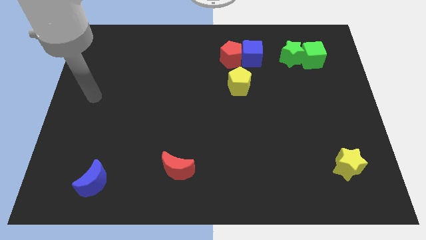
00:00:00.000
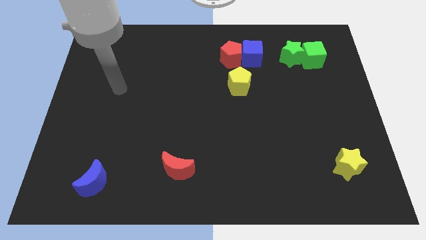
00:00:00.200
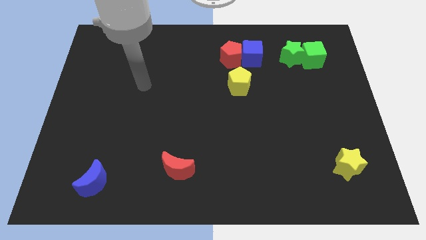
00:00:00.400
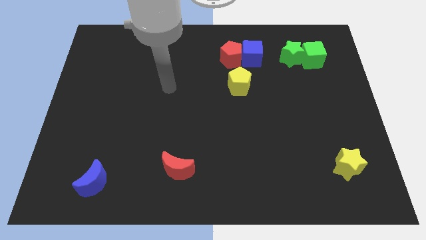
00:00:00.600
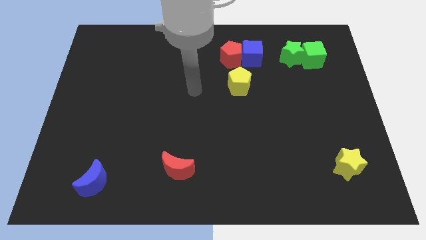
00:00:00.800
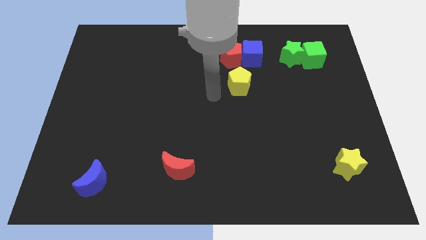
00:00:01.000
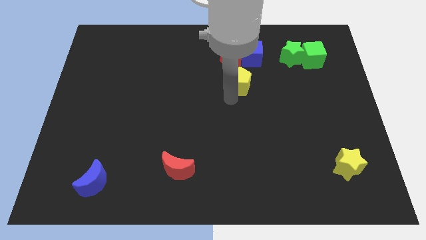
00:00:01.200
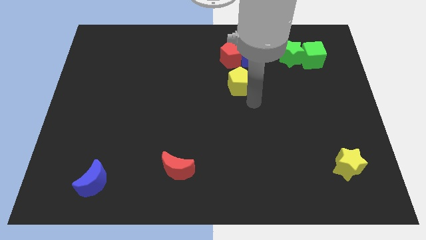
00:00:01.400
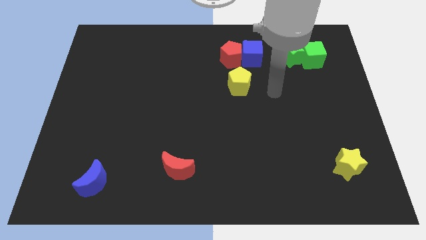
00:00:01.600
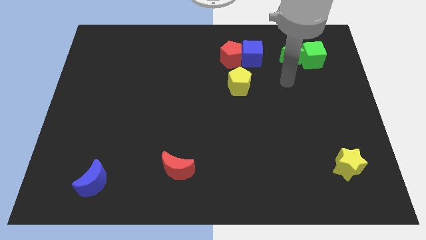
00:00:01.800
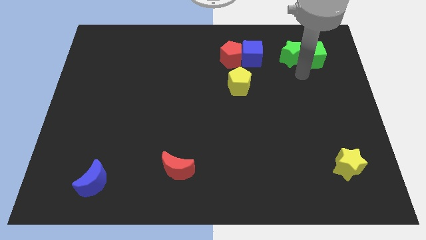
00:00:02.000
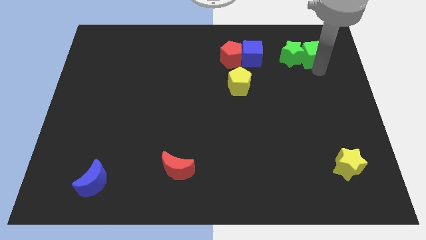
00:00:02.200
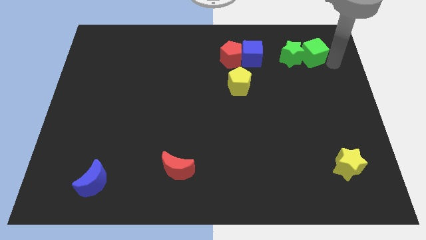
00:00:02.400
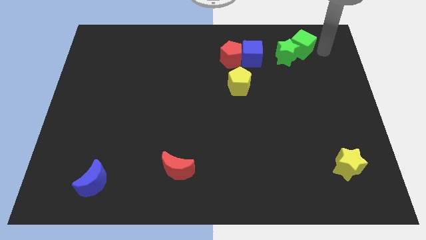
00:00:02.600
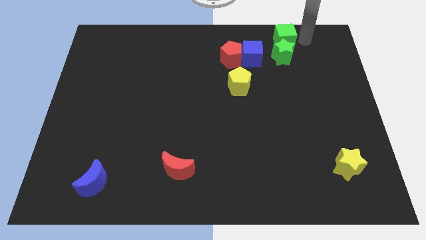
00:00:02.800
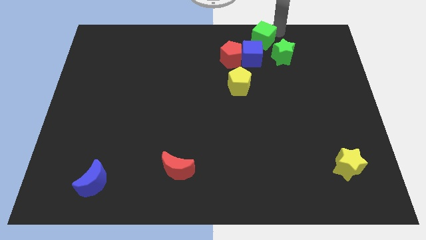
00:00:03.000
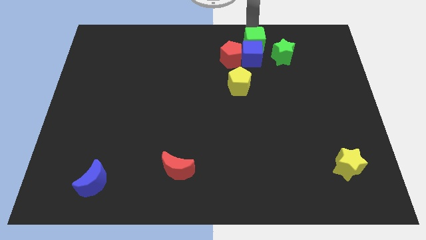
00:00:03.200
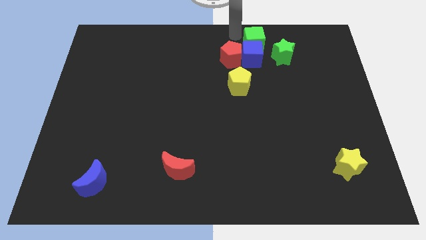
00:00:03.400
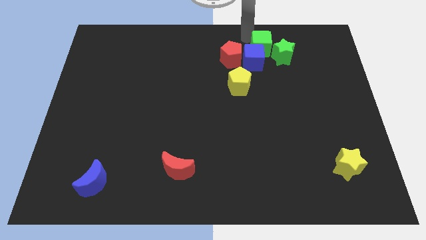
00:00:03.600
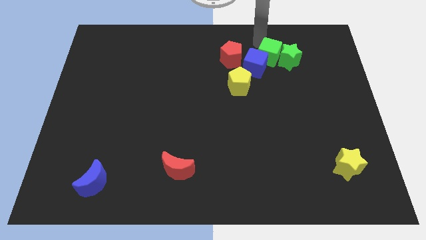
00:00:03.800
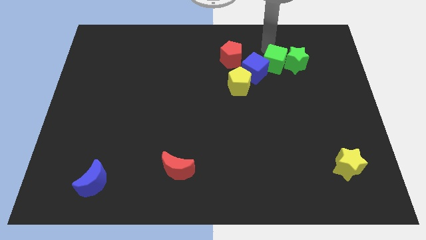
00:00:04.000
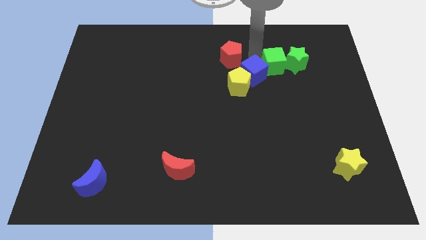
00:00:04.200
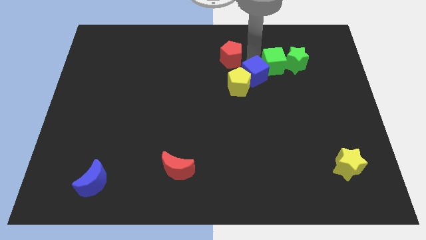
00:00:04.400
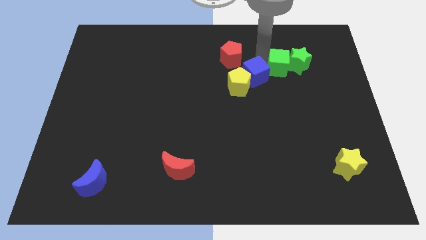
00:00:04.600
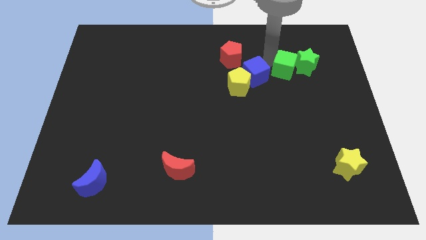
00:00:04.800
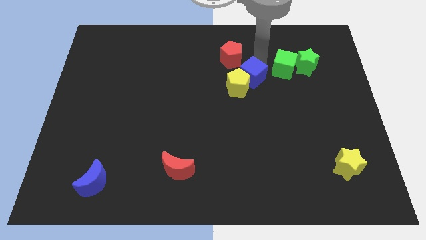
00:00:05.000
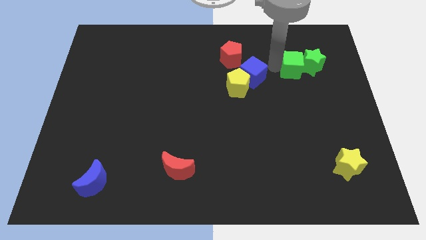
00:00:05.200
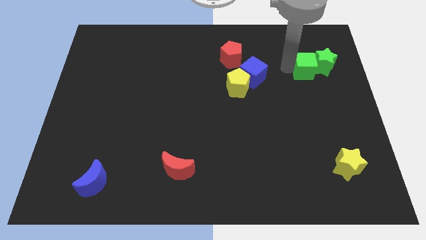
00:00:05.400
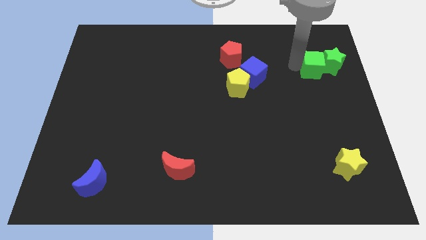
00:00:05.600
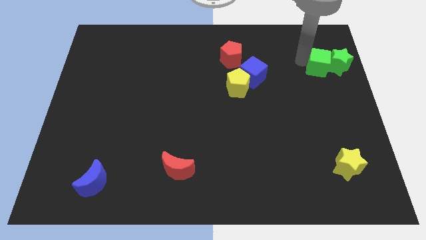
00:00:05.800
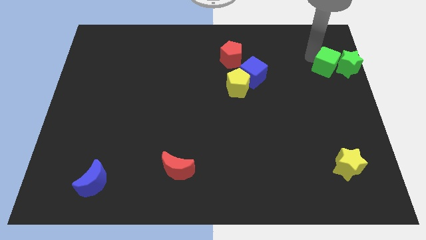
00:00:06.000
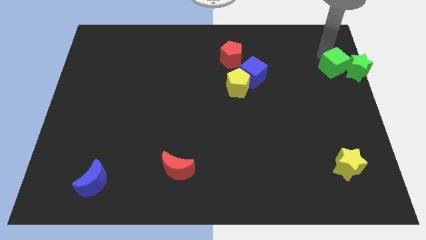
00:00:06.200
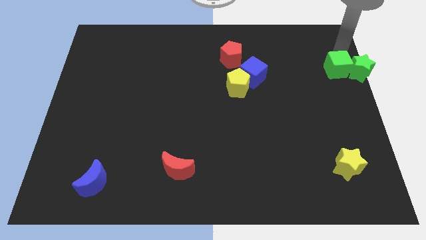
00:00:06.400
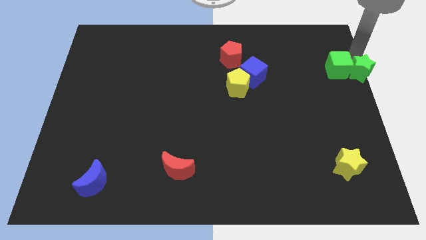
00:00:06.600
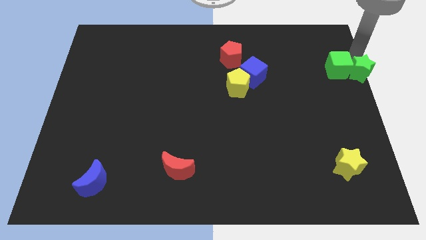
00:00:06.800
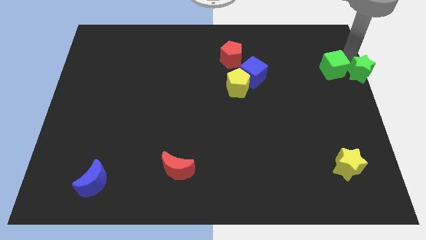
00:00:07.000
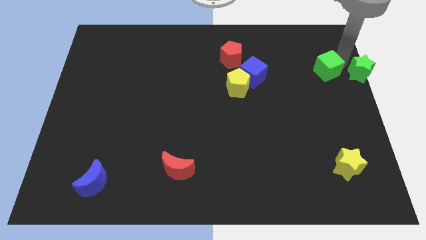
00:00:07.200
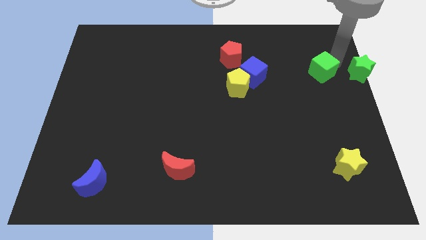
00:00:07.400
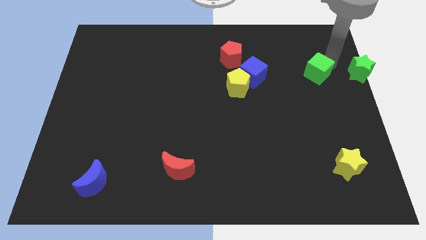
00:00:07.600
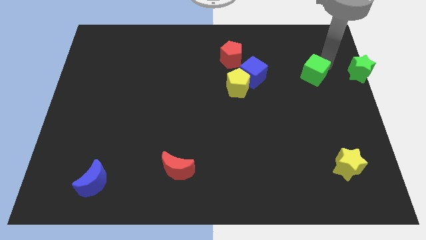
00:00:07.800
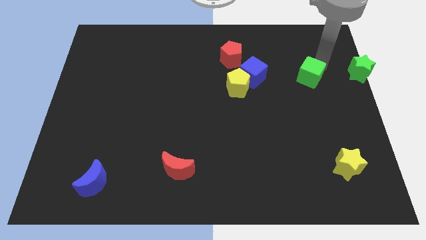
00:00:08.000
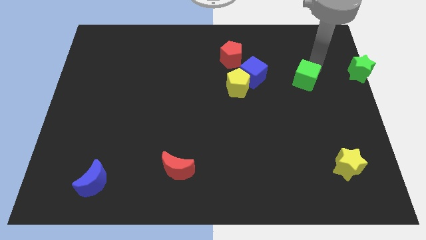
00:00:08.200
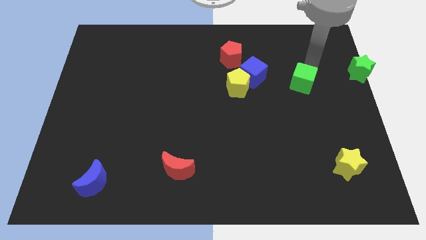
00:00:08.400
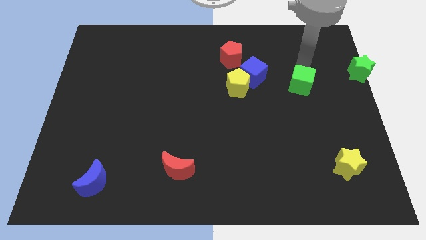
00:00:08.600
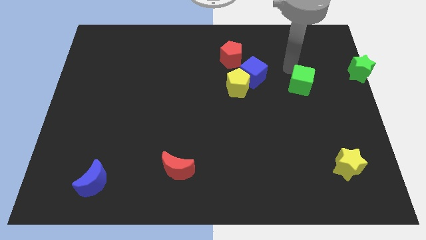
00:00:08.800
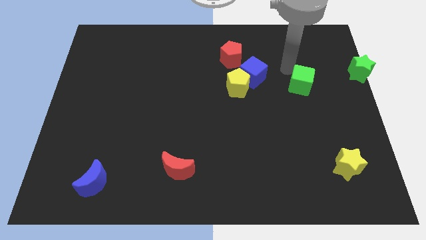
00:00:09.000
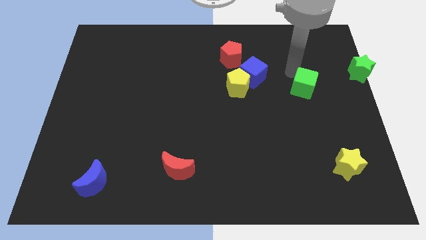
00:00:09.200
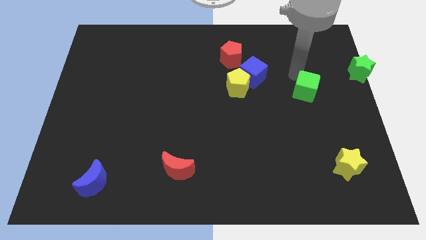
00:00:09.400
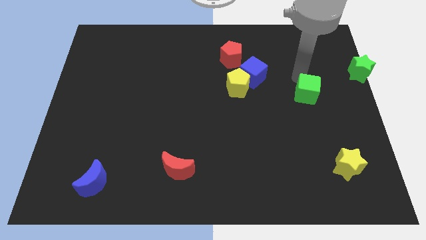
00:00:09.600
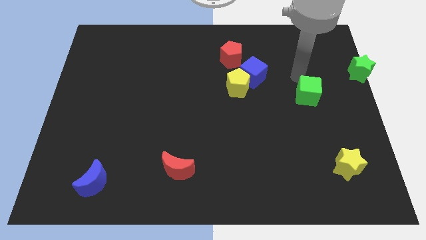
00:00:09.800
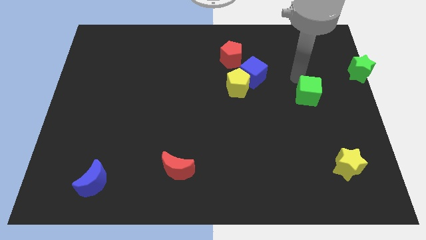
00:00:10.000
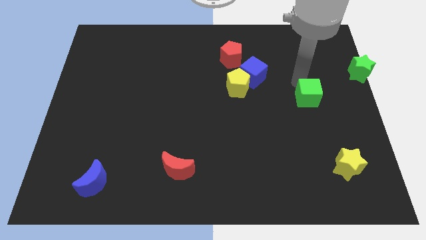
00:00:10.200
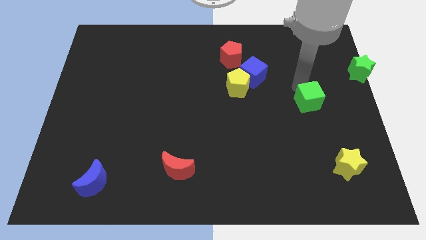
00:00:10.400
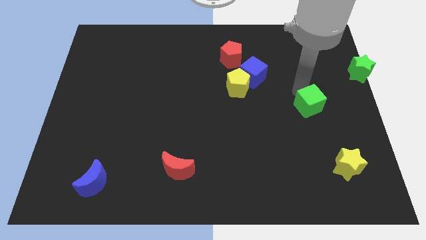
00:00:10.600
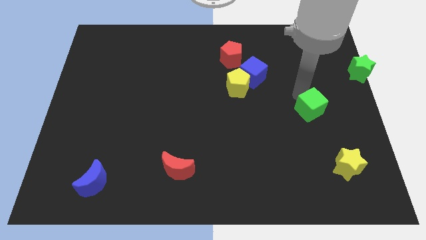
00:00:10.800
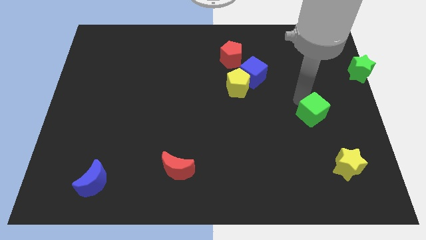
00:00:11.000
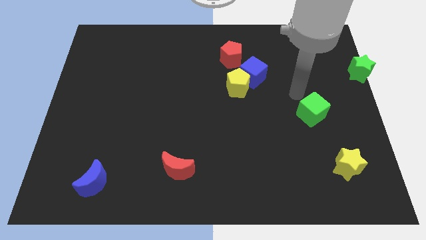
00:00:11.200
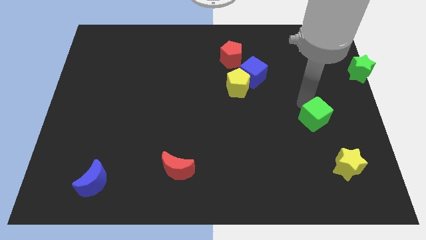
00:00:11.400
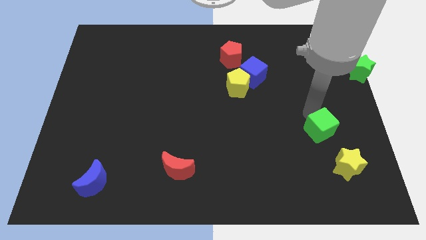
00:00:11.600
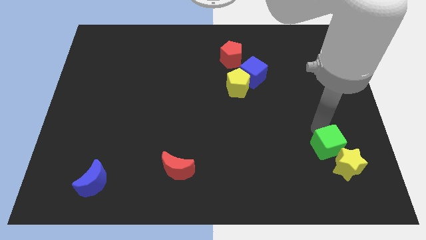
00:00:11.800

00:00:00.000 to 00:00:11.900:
put the green cube to the yellow star

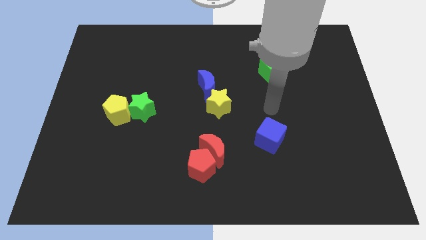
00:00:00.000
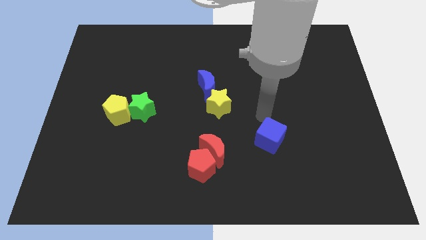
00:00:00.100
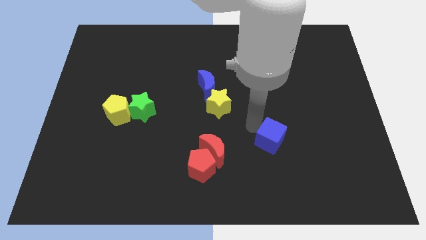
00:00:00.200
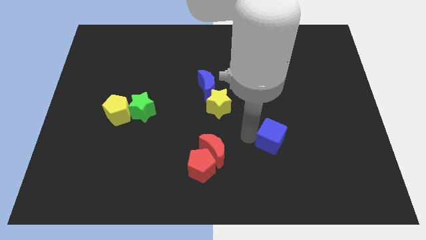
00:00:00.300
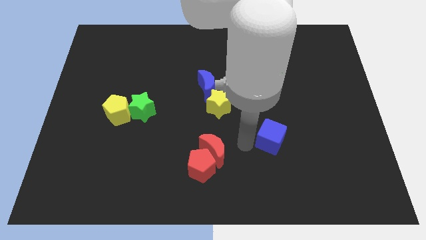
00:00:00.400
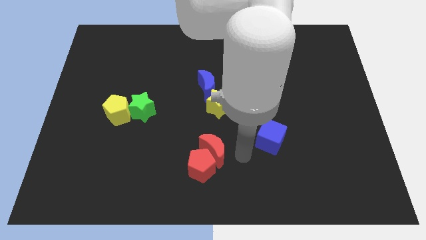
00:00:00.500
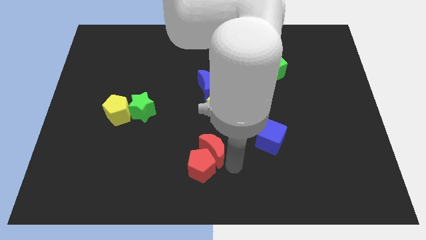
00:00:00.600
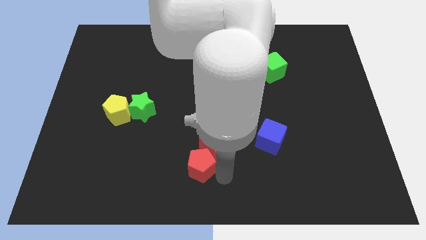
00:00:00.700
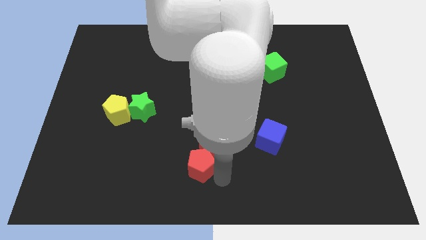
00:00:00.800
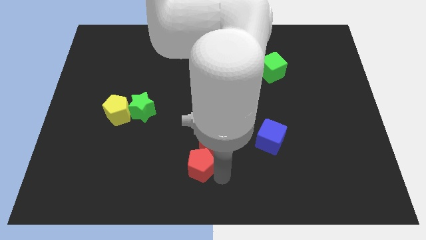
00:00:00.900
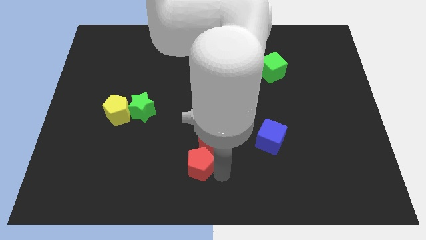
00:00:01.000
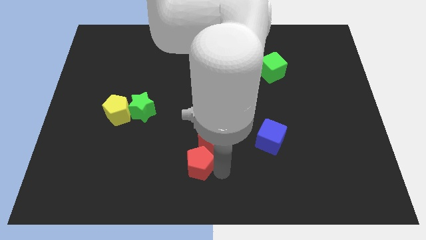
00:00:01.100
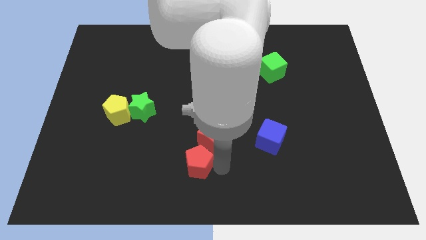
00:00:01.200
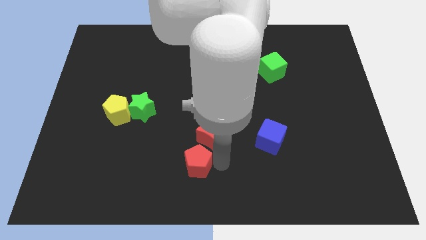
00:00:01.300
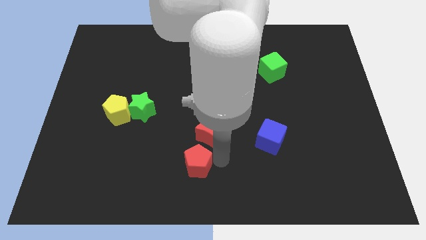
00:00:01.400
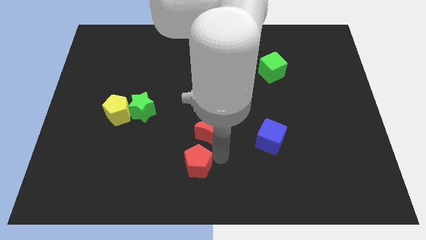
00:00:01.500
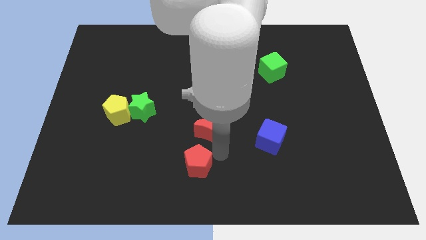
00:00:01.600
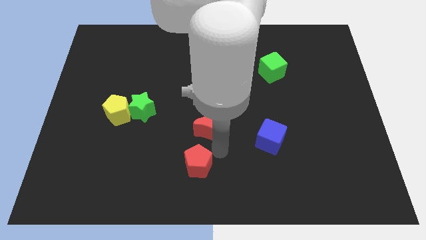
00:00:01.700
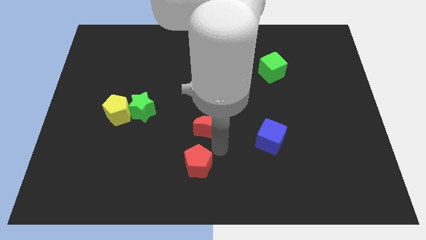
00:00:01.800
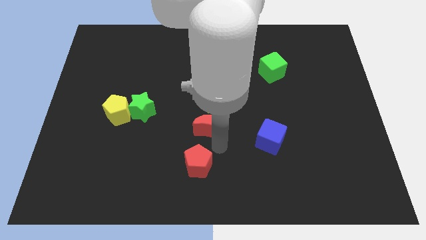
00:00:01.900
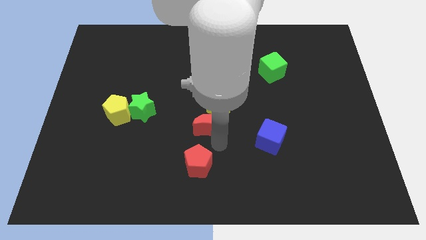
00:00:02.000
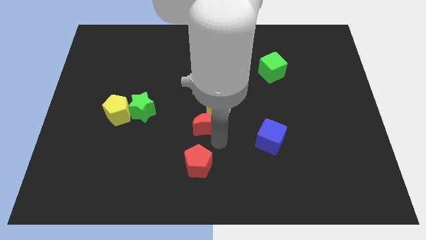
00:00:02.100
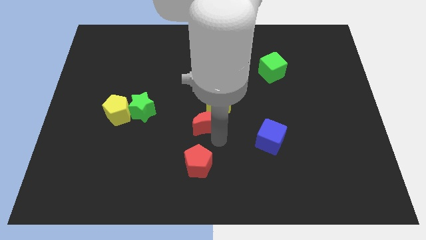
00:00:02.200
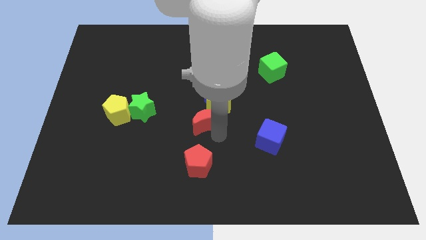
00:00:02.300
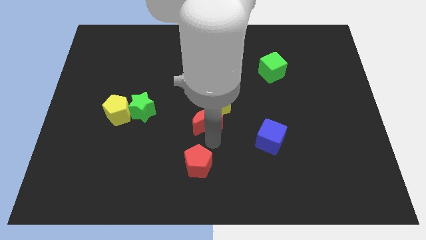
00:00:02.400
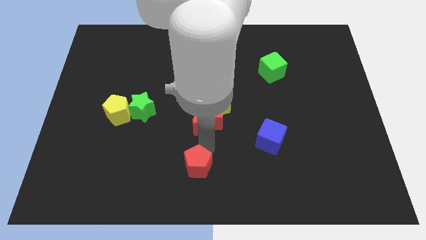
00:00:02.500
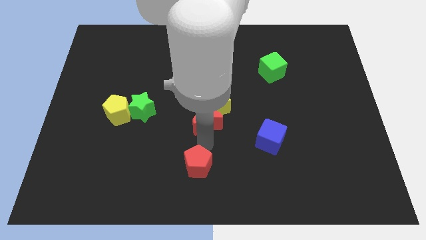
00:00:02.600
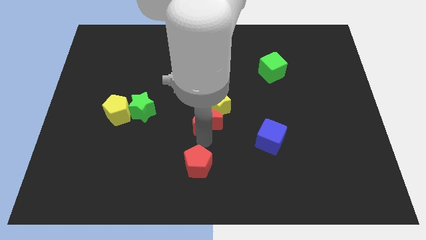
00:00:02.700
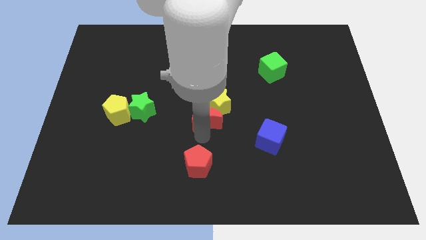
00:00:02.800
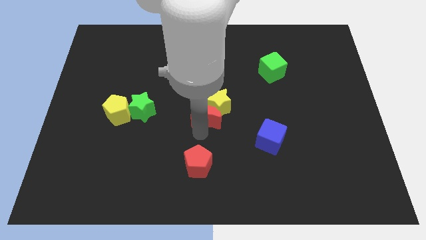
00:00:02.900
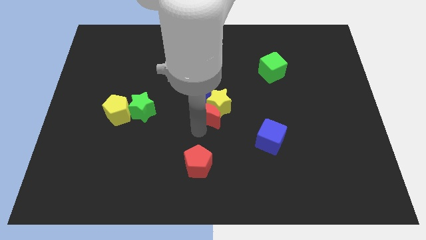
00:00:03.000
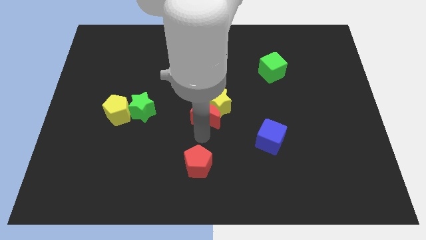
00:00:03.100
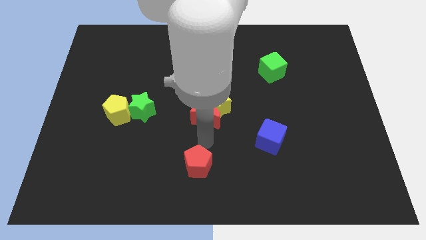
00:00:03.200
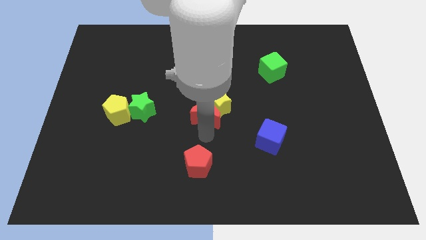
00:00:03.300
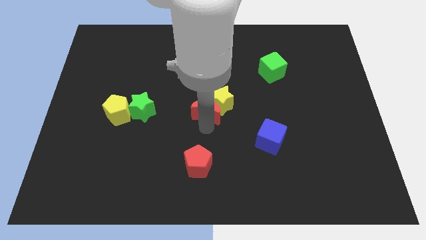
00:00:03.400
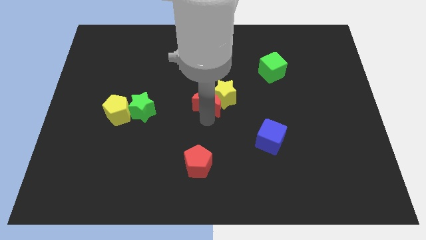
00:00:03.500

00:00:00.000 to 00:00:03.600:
push the red moon to the blue moon
